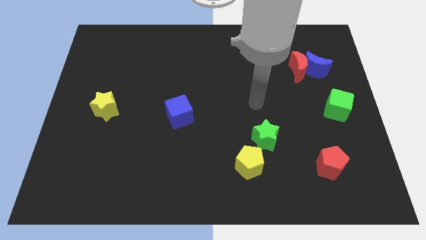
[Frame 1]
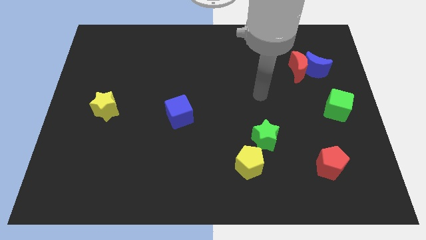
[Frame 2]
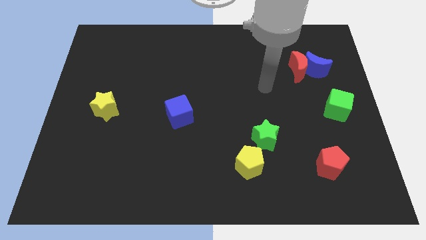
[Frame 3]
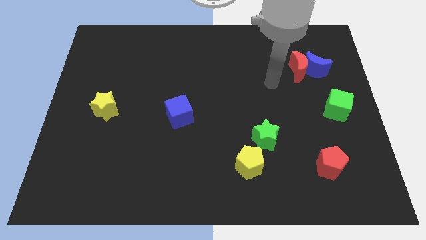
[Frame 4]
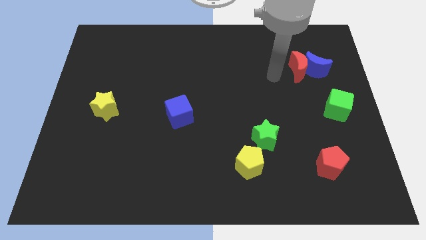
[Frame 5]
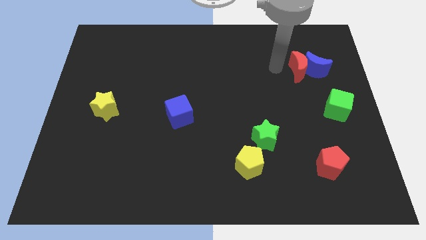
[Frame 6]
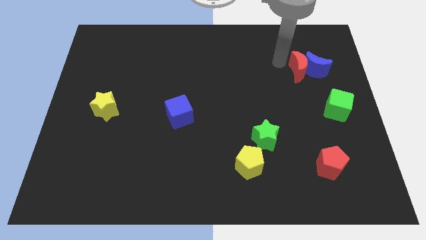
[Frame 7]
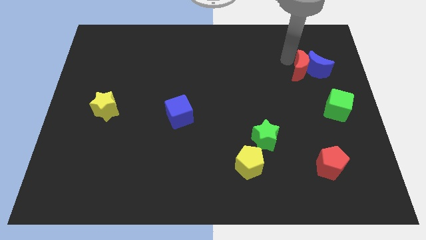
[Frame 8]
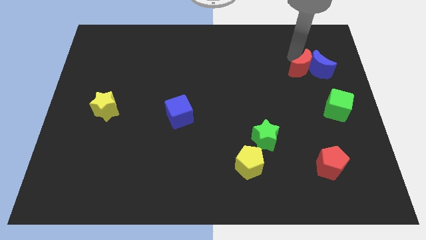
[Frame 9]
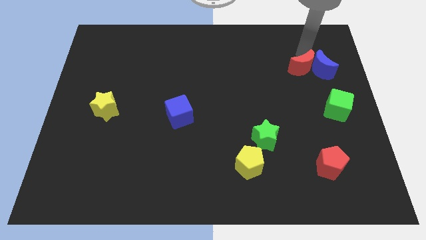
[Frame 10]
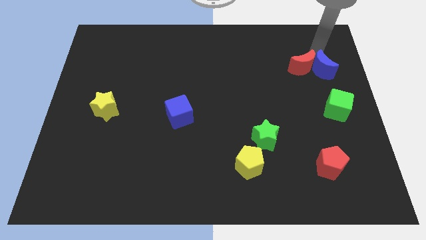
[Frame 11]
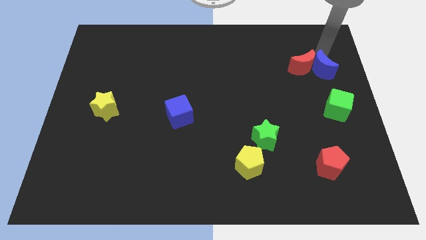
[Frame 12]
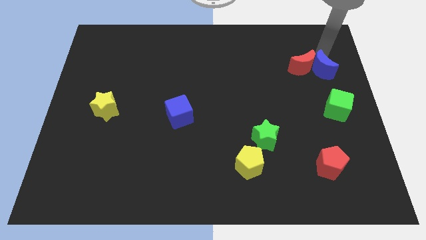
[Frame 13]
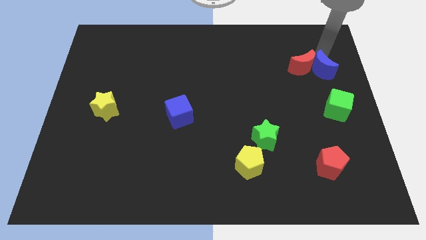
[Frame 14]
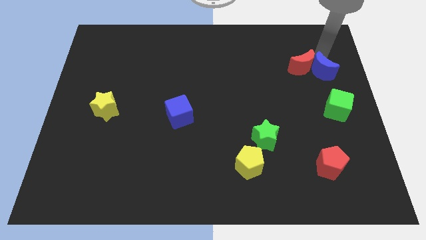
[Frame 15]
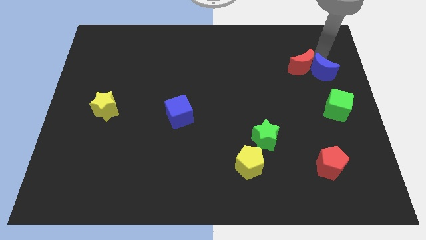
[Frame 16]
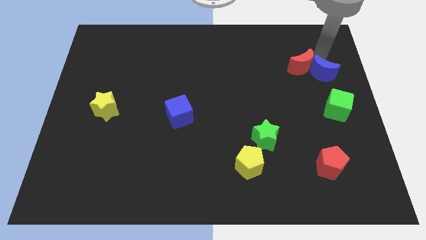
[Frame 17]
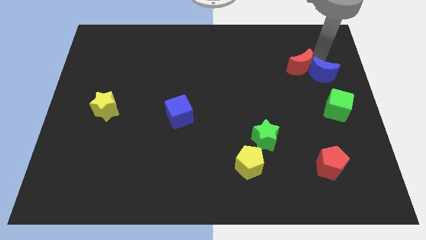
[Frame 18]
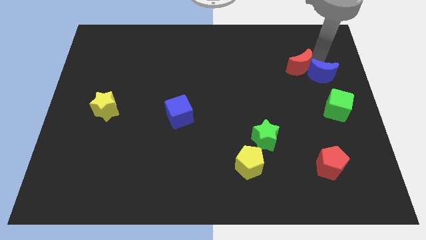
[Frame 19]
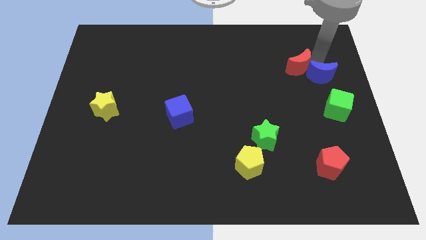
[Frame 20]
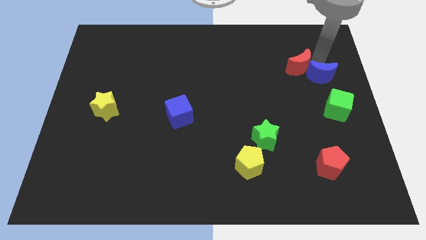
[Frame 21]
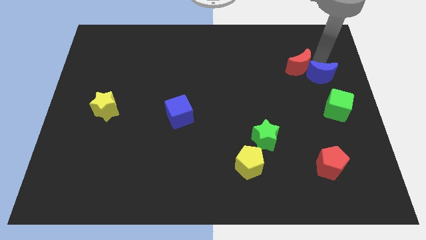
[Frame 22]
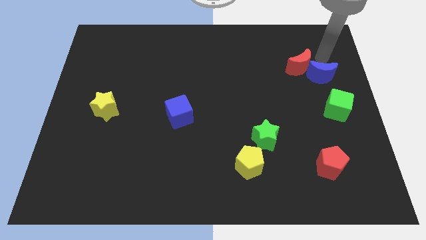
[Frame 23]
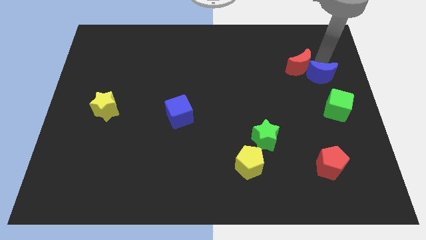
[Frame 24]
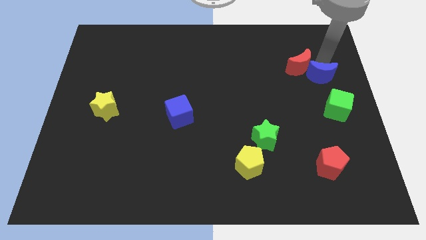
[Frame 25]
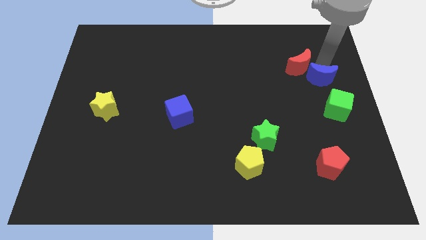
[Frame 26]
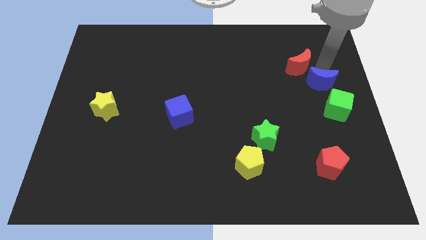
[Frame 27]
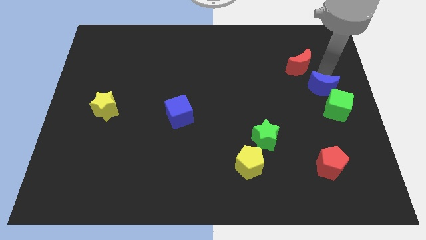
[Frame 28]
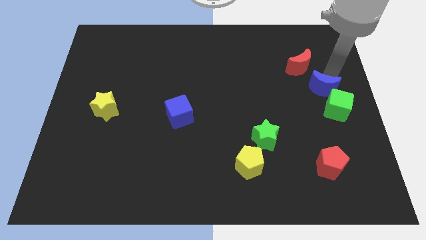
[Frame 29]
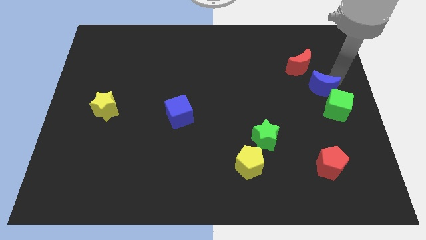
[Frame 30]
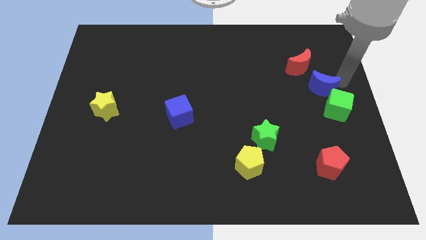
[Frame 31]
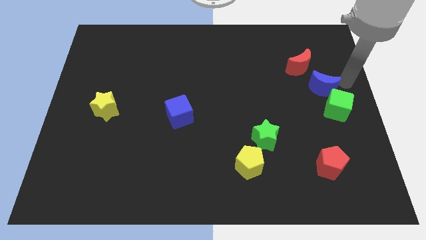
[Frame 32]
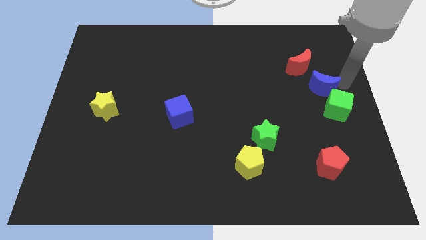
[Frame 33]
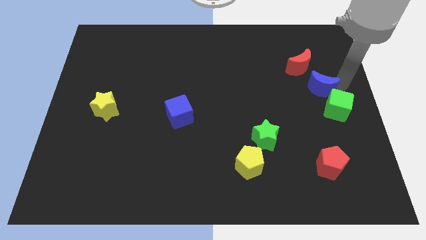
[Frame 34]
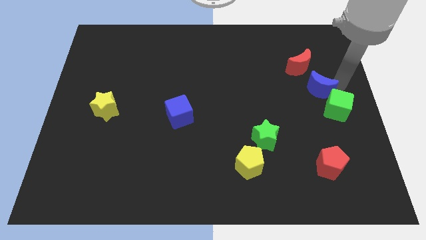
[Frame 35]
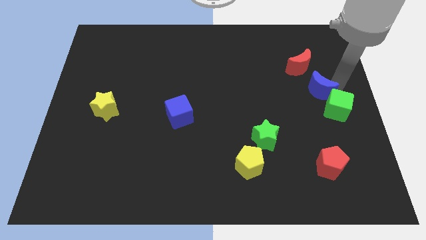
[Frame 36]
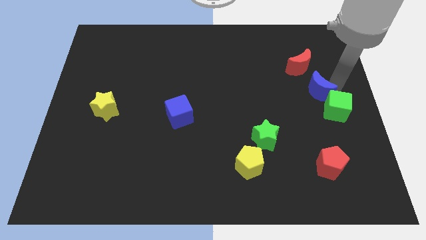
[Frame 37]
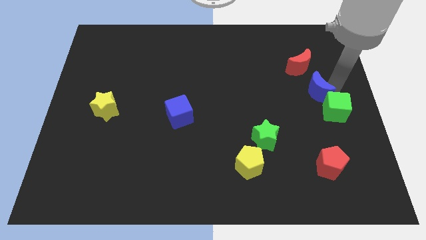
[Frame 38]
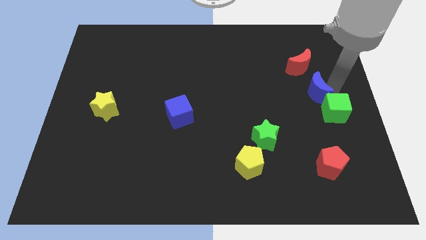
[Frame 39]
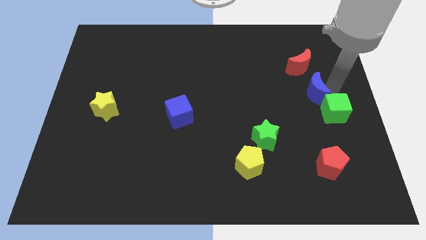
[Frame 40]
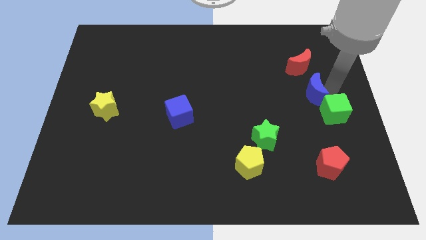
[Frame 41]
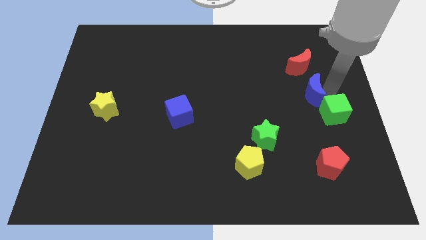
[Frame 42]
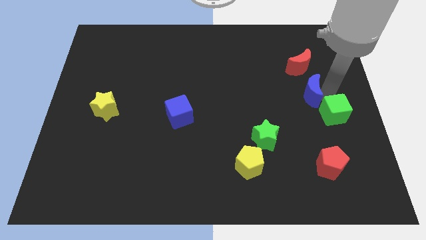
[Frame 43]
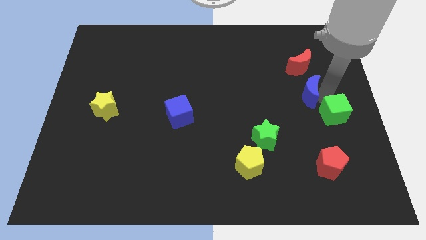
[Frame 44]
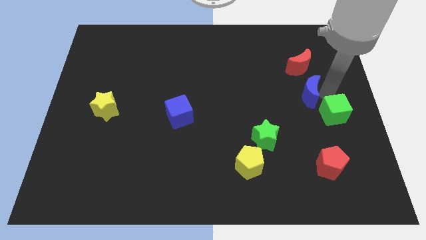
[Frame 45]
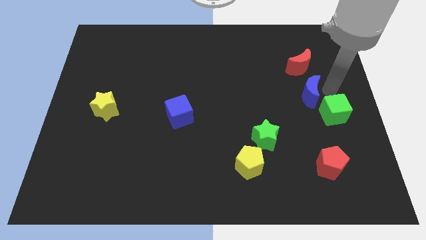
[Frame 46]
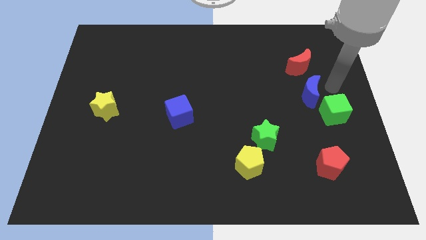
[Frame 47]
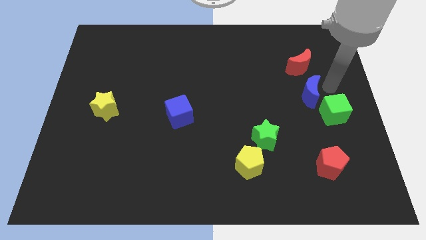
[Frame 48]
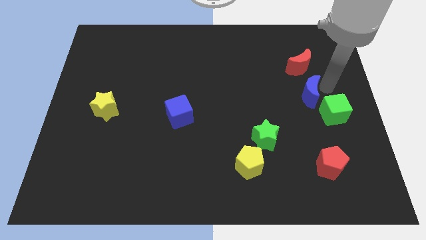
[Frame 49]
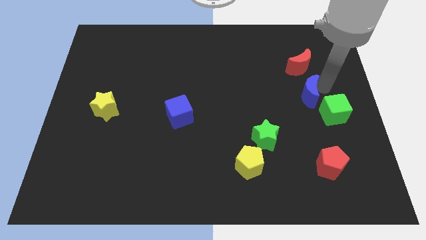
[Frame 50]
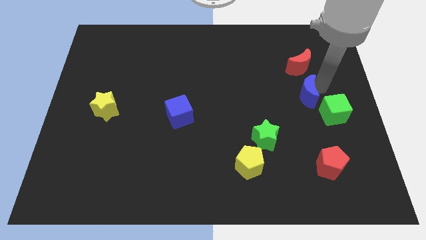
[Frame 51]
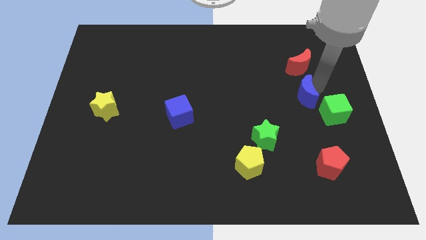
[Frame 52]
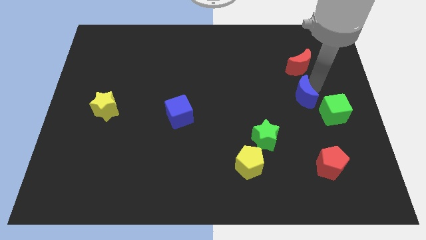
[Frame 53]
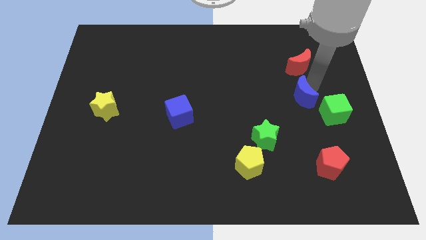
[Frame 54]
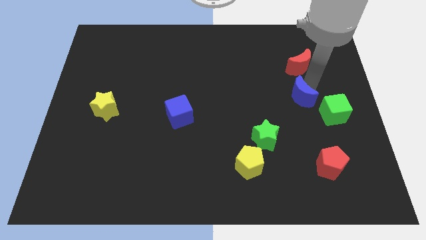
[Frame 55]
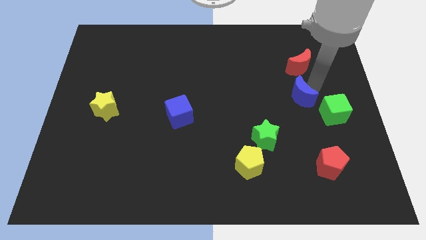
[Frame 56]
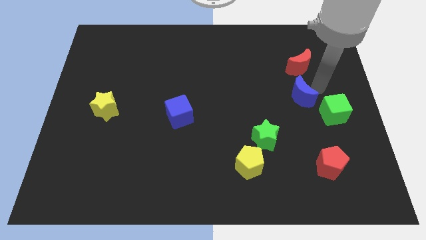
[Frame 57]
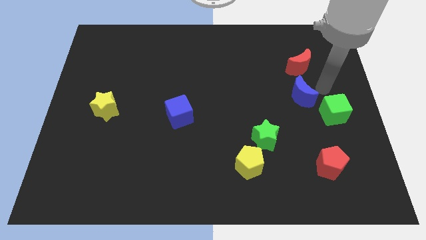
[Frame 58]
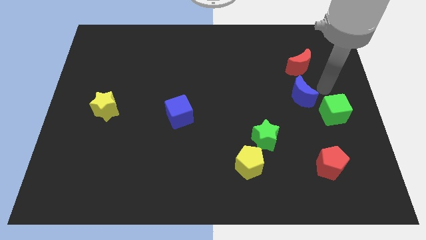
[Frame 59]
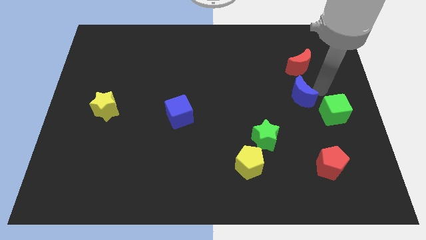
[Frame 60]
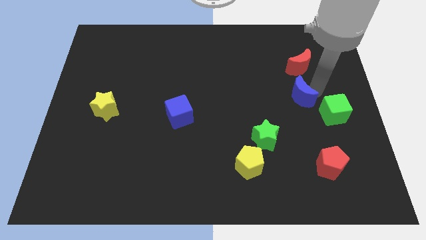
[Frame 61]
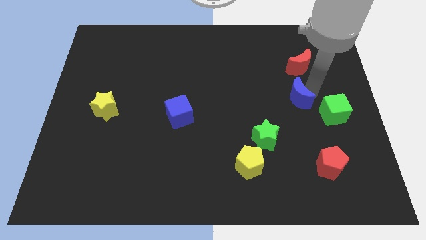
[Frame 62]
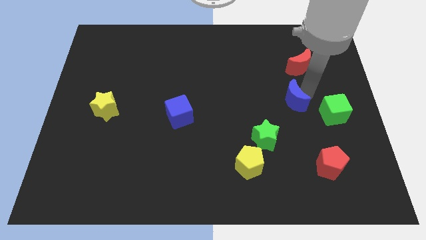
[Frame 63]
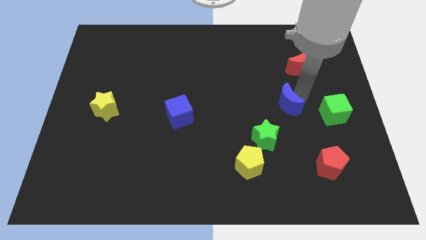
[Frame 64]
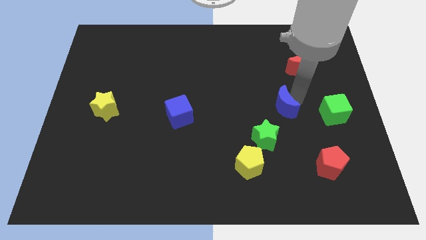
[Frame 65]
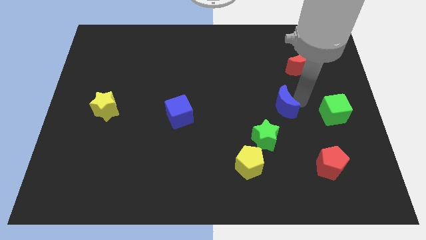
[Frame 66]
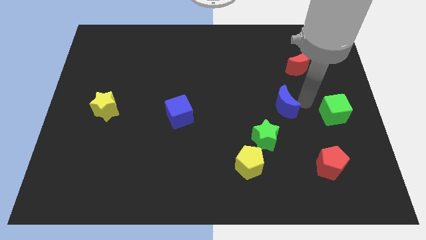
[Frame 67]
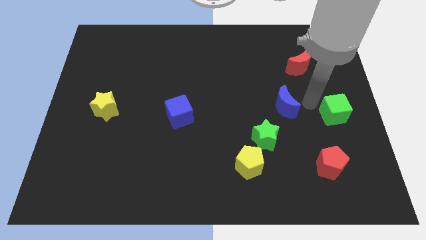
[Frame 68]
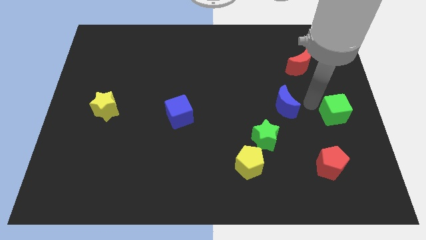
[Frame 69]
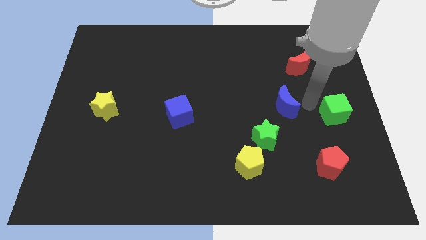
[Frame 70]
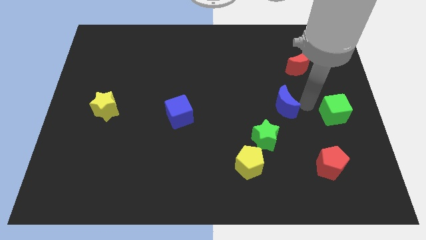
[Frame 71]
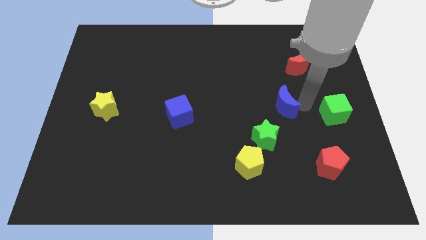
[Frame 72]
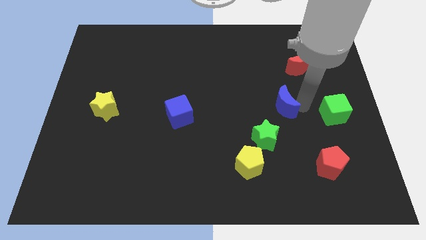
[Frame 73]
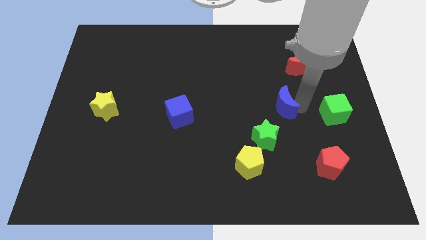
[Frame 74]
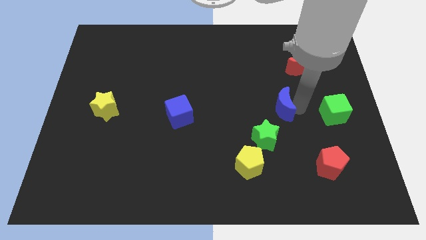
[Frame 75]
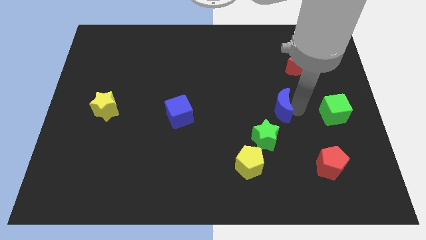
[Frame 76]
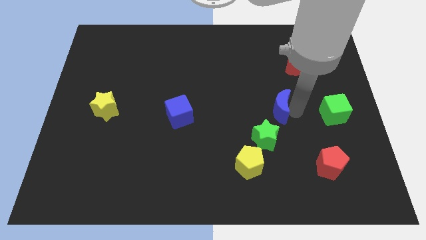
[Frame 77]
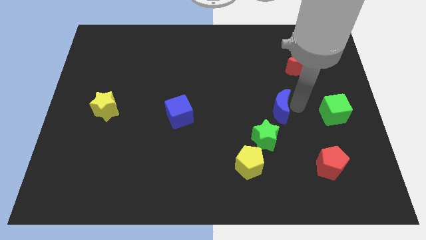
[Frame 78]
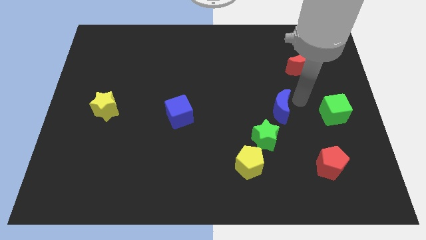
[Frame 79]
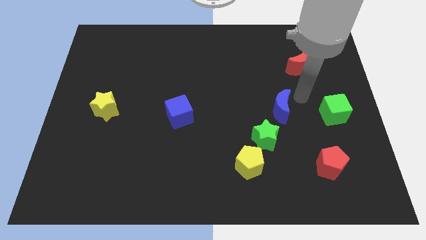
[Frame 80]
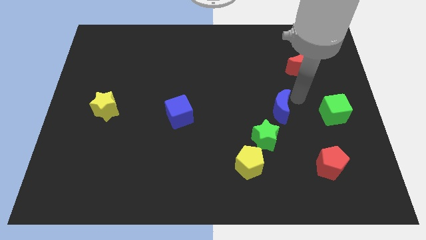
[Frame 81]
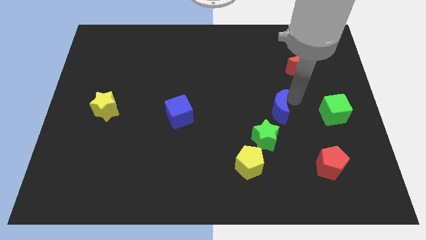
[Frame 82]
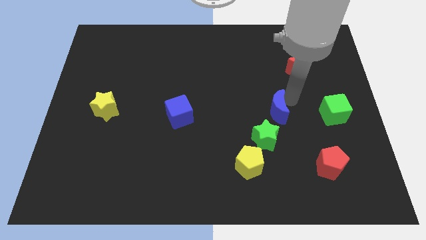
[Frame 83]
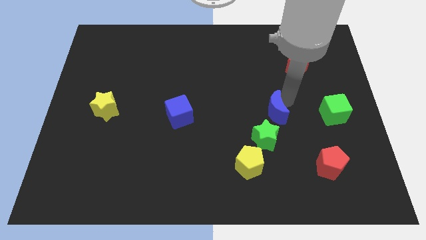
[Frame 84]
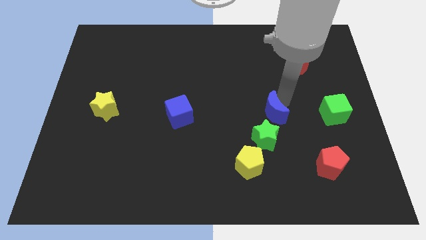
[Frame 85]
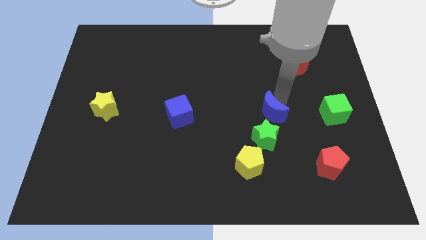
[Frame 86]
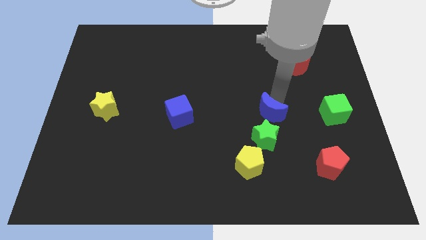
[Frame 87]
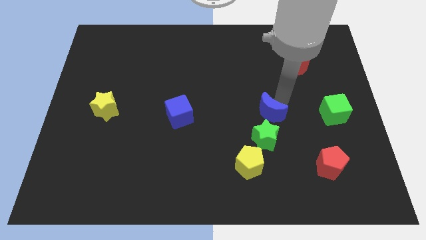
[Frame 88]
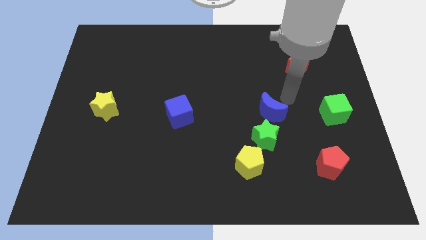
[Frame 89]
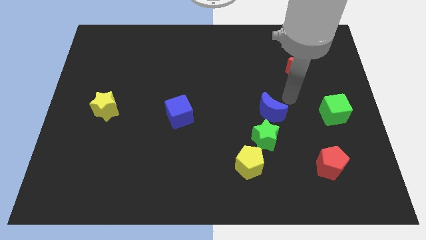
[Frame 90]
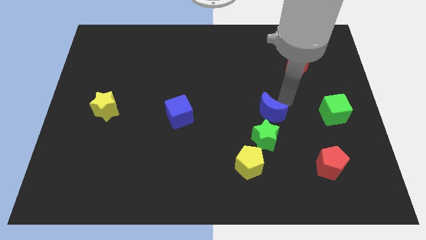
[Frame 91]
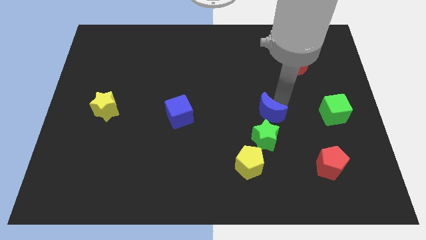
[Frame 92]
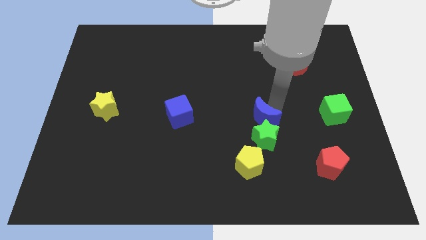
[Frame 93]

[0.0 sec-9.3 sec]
move the blue moon downwards and left
